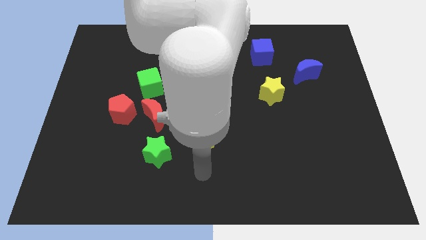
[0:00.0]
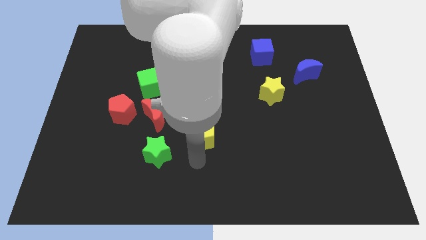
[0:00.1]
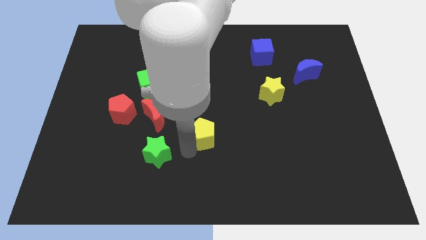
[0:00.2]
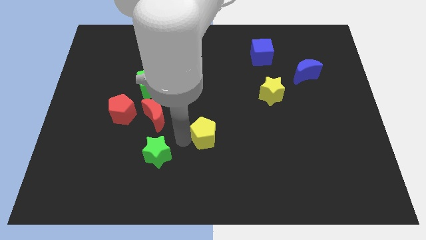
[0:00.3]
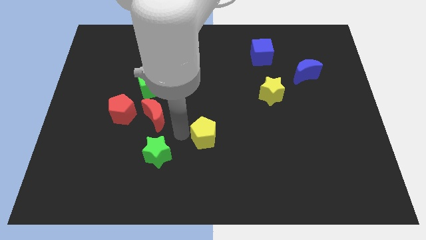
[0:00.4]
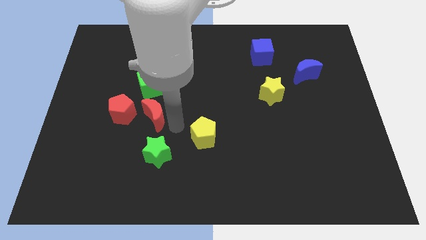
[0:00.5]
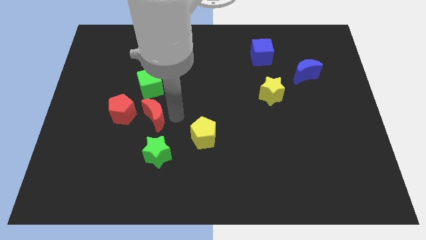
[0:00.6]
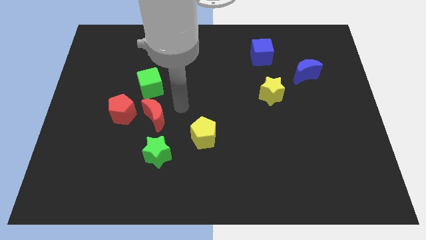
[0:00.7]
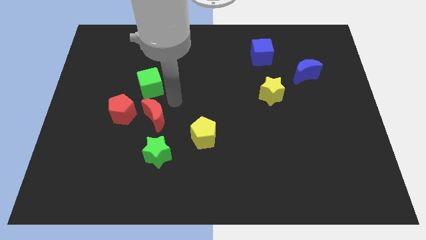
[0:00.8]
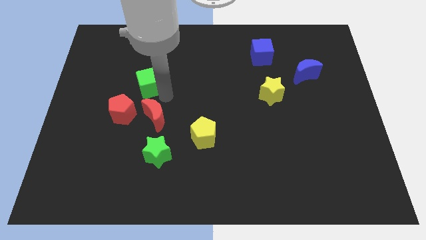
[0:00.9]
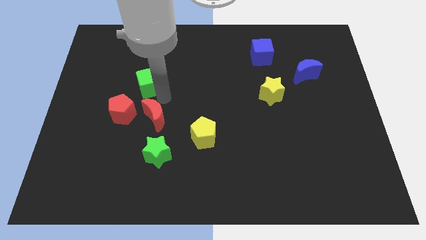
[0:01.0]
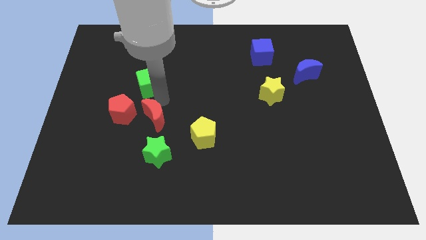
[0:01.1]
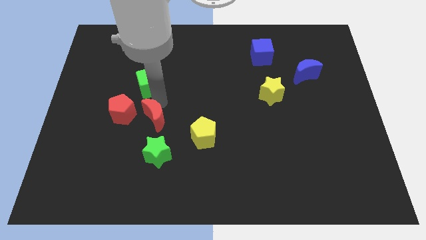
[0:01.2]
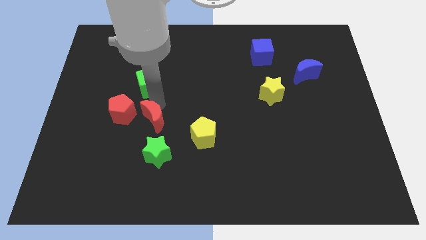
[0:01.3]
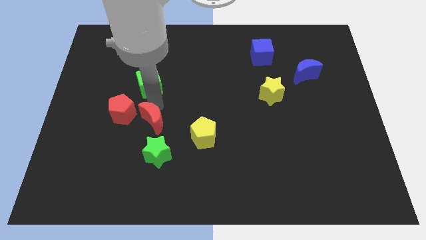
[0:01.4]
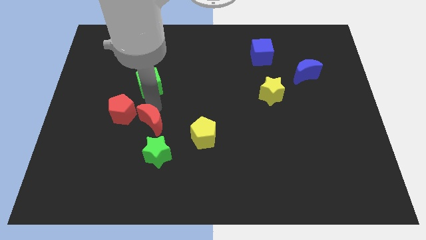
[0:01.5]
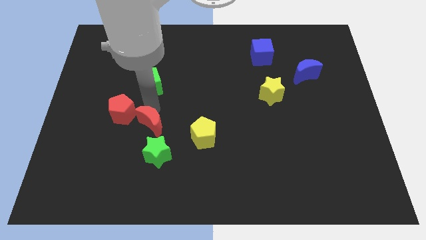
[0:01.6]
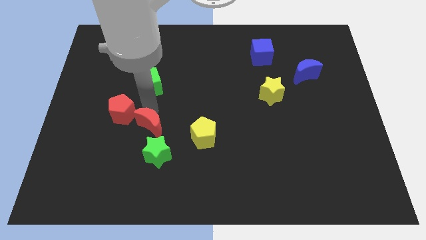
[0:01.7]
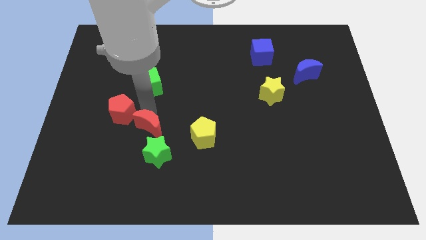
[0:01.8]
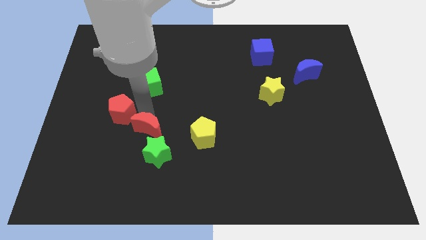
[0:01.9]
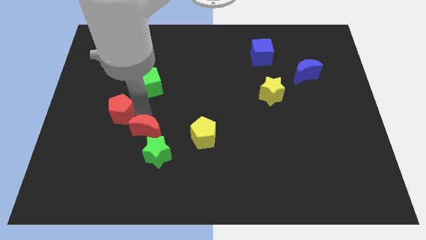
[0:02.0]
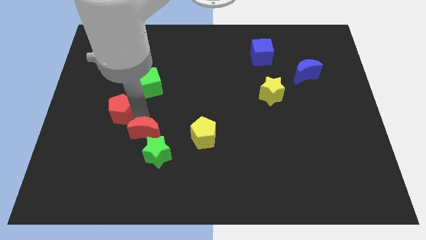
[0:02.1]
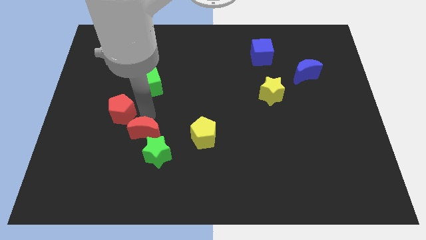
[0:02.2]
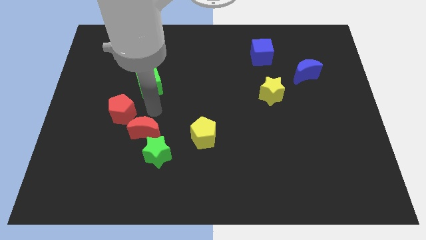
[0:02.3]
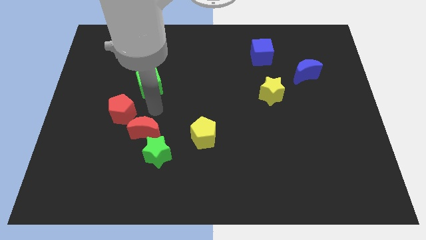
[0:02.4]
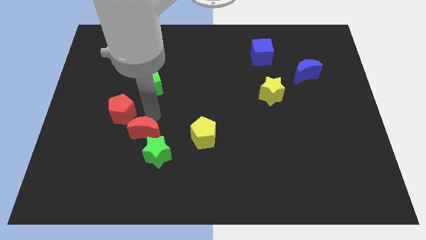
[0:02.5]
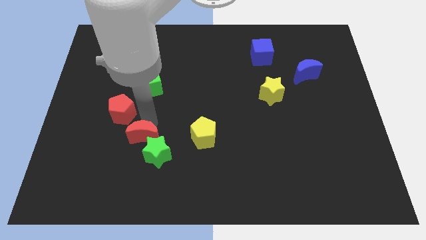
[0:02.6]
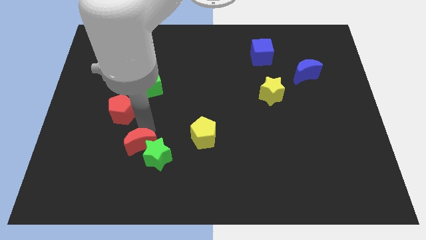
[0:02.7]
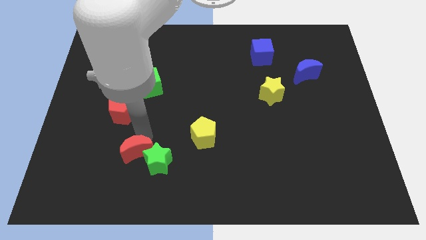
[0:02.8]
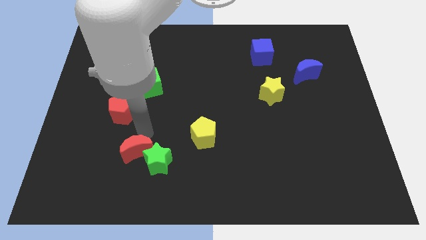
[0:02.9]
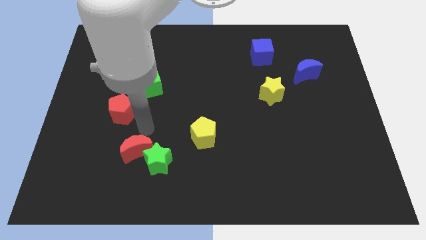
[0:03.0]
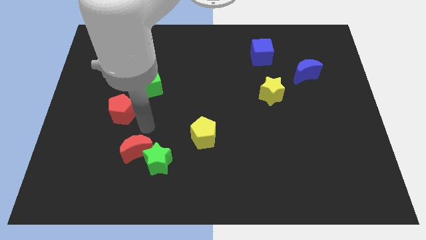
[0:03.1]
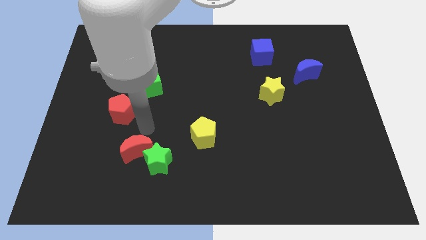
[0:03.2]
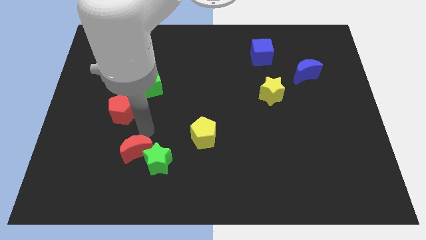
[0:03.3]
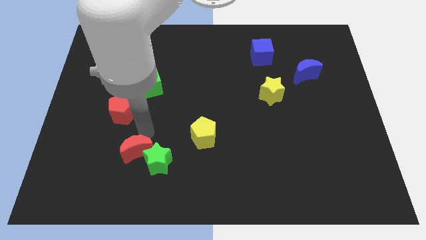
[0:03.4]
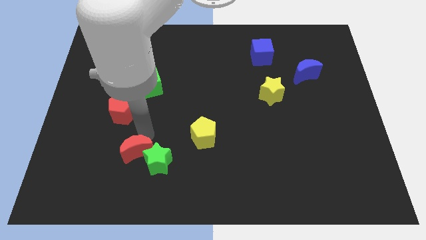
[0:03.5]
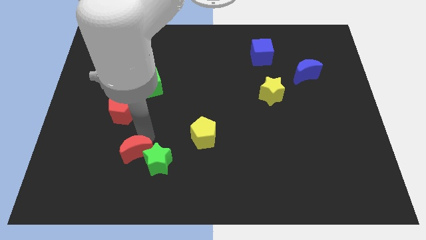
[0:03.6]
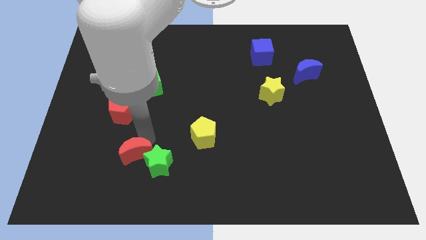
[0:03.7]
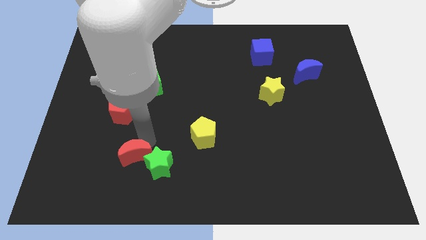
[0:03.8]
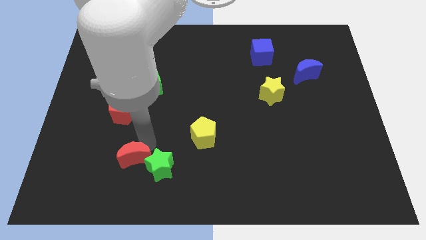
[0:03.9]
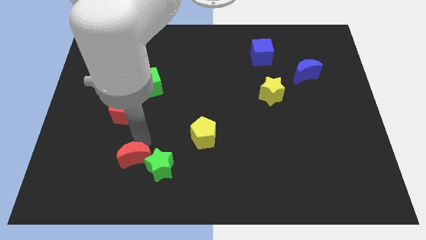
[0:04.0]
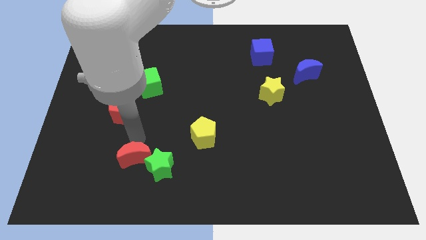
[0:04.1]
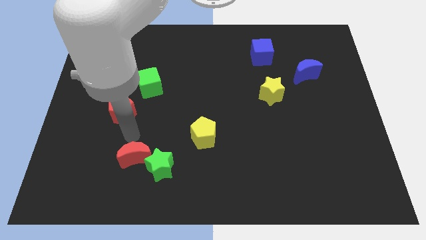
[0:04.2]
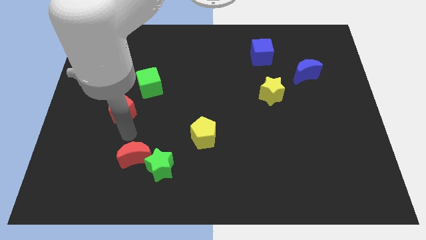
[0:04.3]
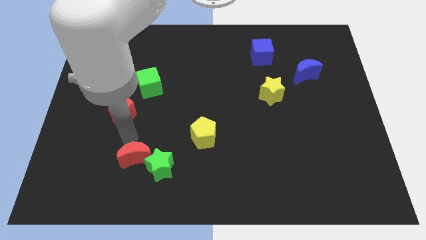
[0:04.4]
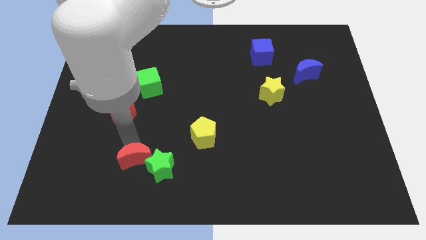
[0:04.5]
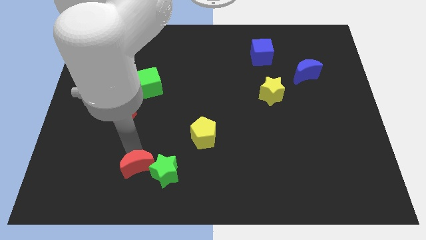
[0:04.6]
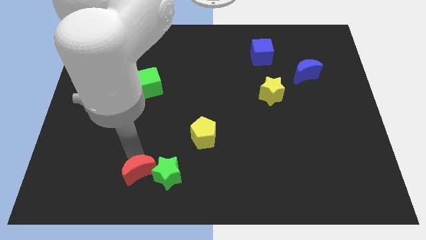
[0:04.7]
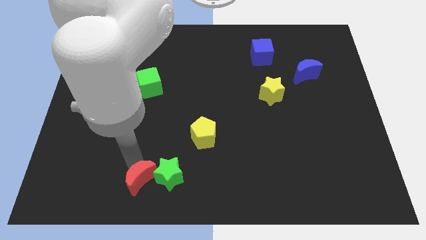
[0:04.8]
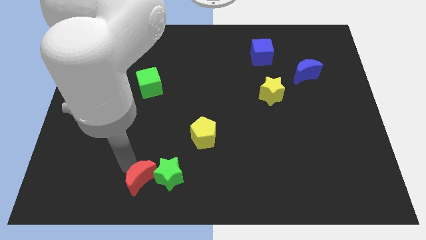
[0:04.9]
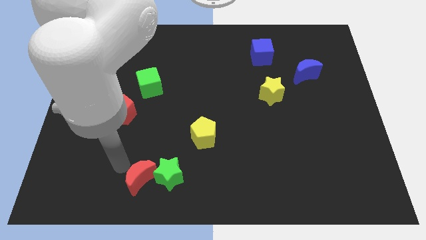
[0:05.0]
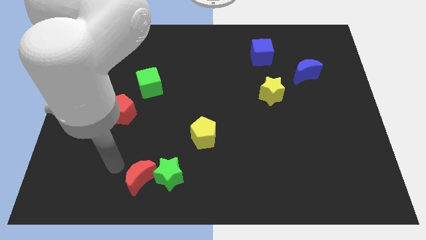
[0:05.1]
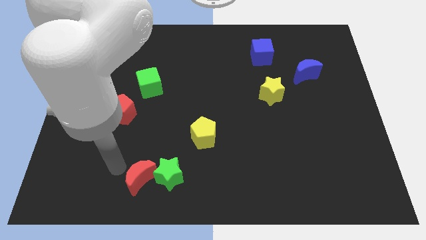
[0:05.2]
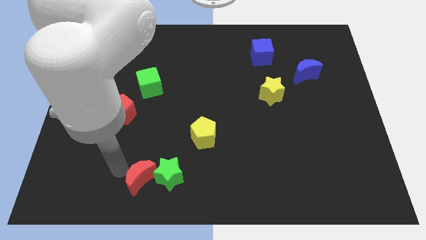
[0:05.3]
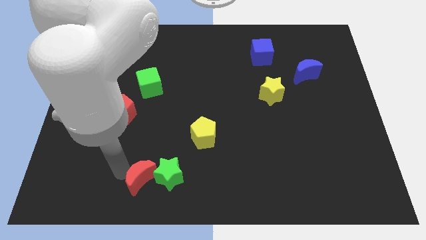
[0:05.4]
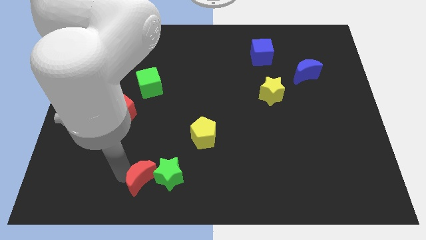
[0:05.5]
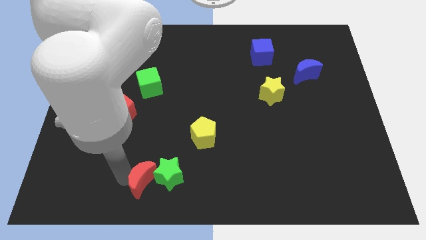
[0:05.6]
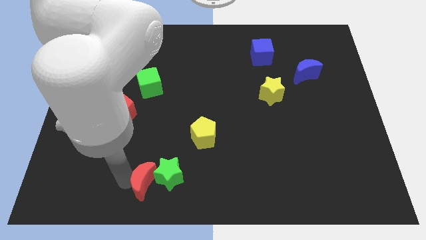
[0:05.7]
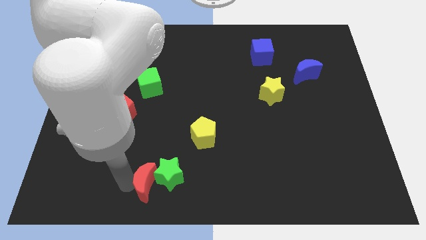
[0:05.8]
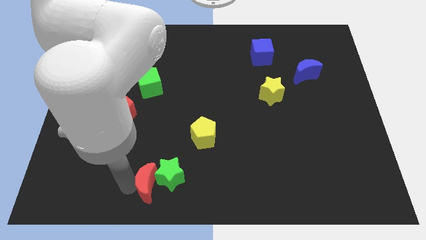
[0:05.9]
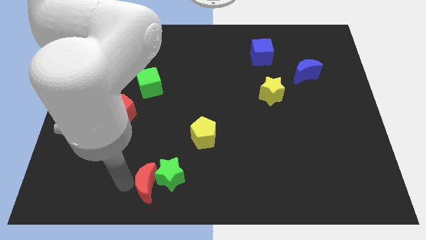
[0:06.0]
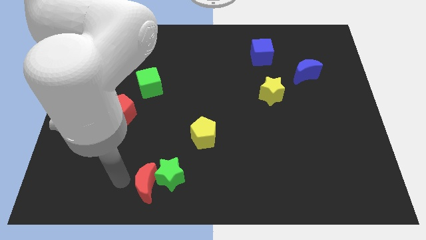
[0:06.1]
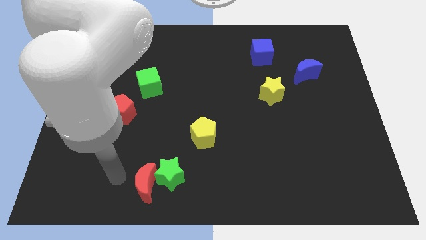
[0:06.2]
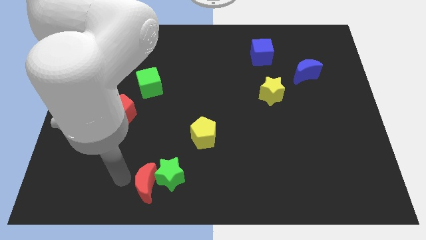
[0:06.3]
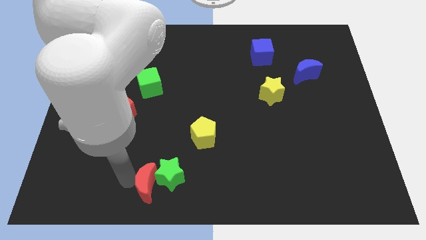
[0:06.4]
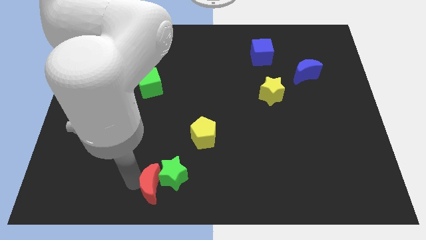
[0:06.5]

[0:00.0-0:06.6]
slide the red moon to the bottom side
